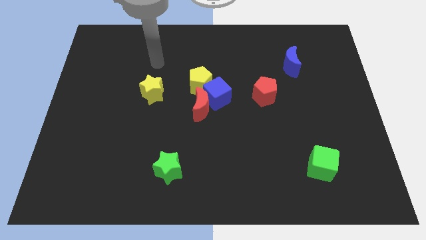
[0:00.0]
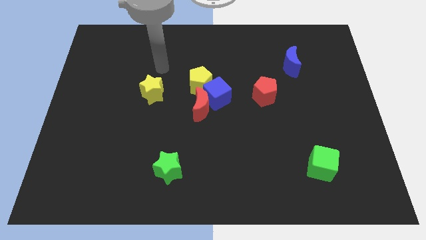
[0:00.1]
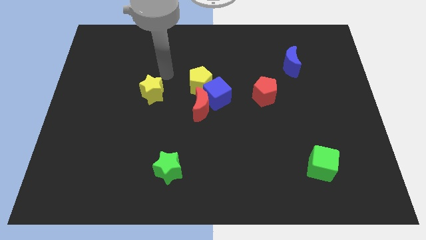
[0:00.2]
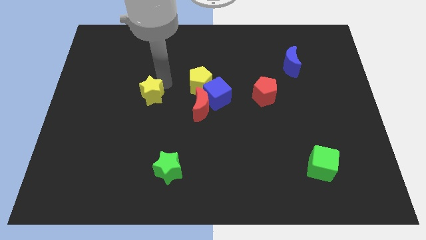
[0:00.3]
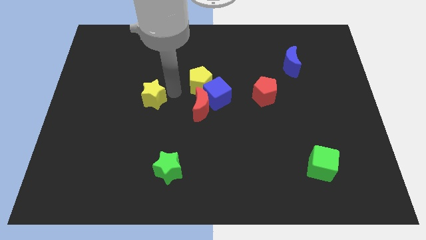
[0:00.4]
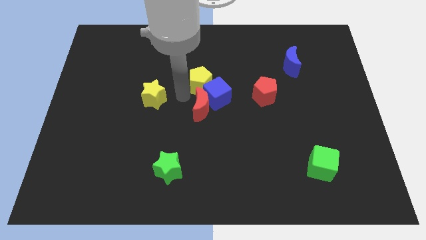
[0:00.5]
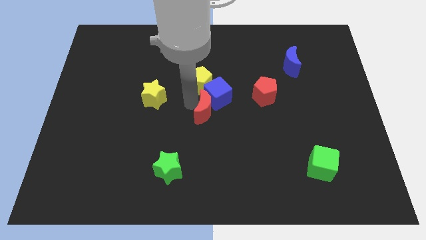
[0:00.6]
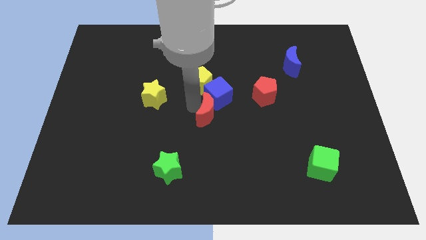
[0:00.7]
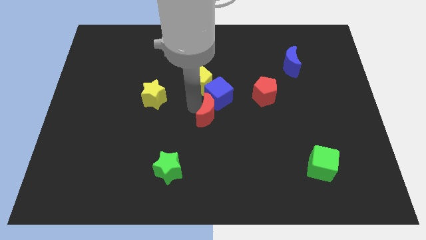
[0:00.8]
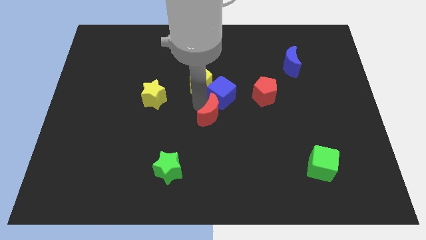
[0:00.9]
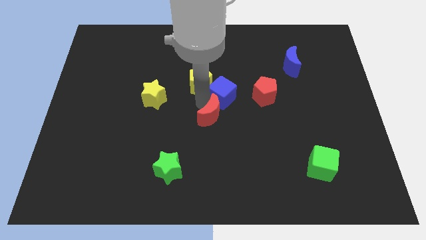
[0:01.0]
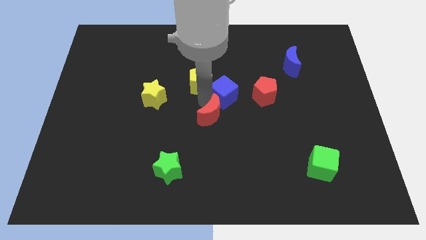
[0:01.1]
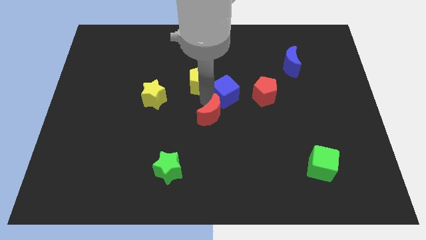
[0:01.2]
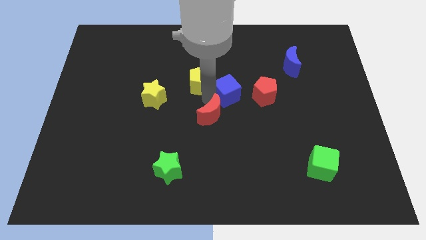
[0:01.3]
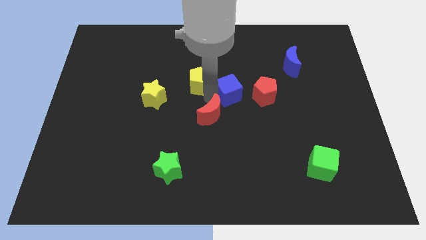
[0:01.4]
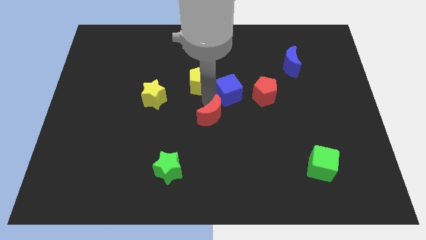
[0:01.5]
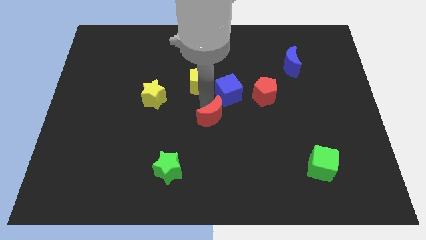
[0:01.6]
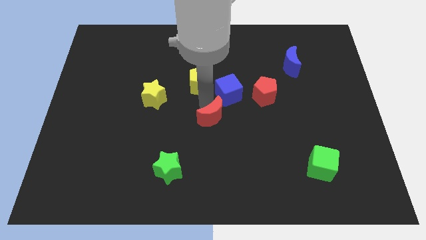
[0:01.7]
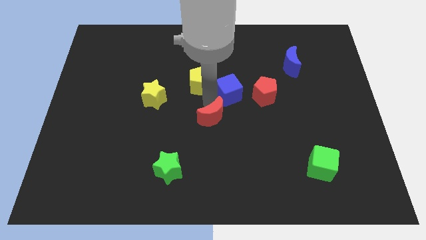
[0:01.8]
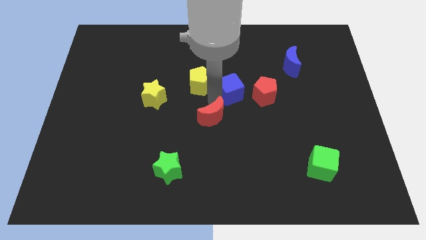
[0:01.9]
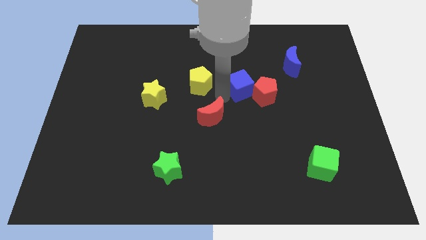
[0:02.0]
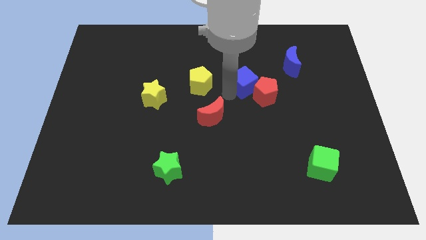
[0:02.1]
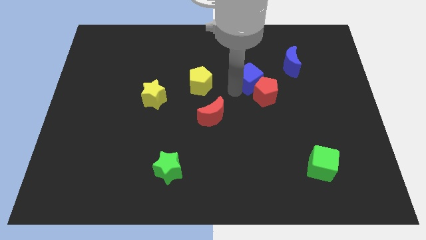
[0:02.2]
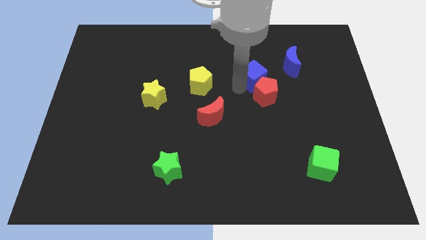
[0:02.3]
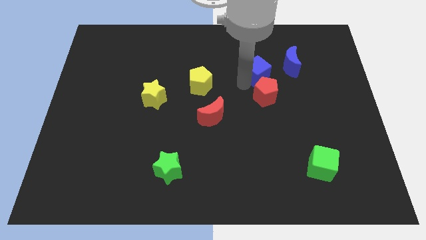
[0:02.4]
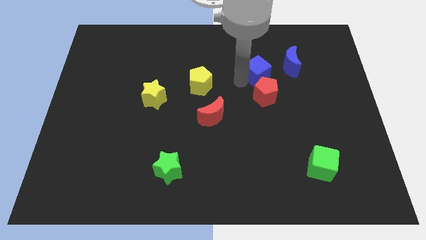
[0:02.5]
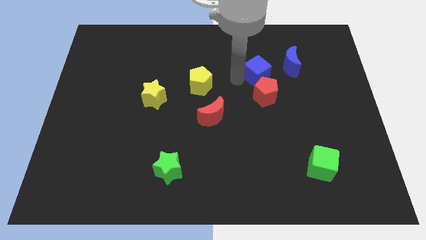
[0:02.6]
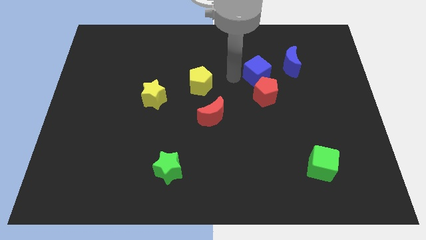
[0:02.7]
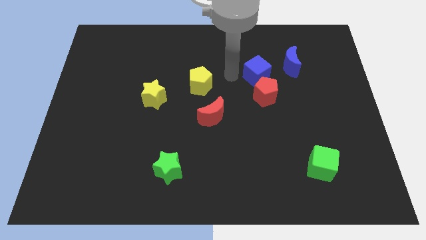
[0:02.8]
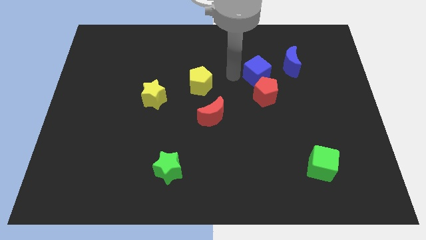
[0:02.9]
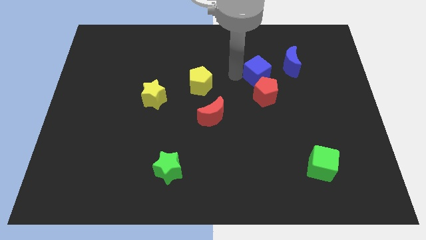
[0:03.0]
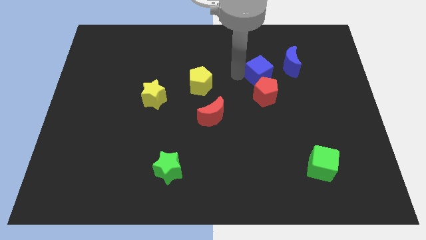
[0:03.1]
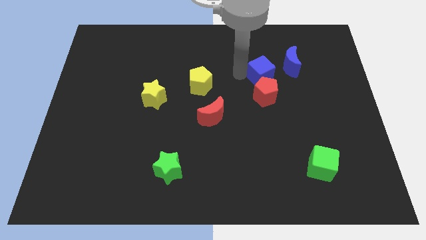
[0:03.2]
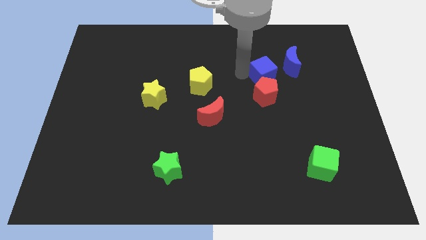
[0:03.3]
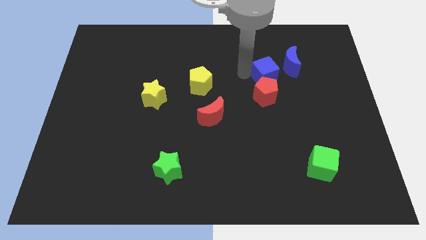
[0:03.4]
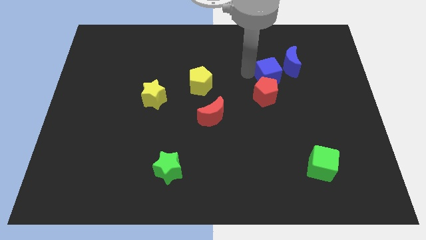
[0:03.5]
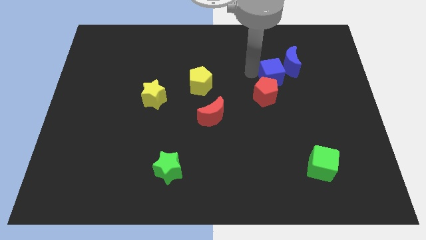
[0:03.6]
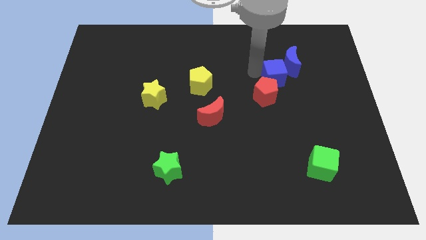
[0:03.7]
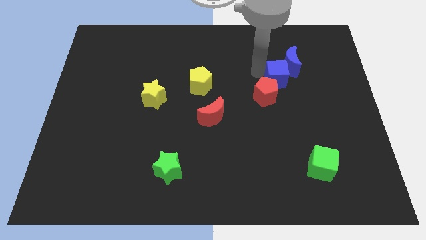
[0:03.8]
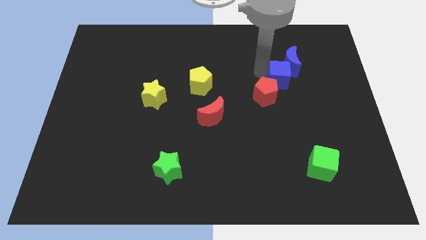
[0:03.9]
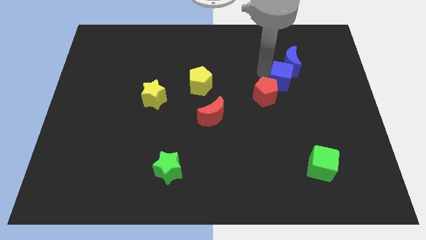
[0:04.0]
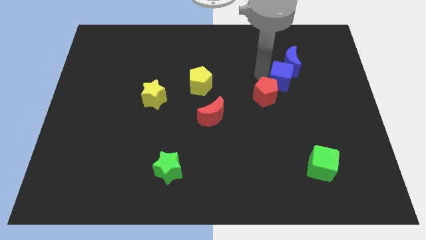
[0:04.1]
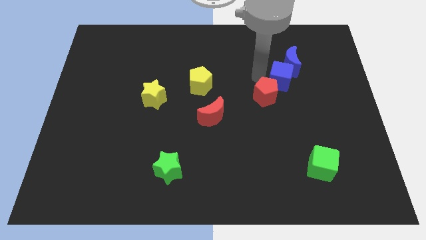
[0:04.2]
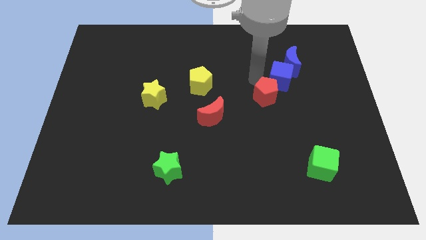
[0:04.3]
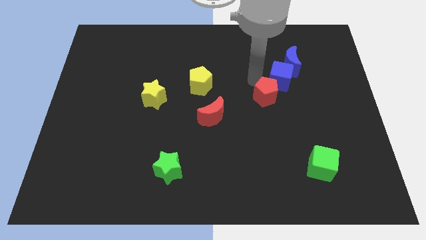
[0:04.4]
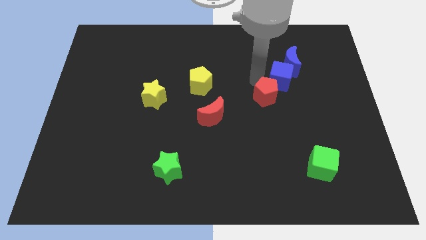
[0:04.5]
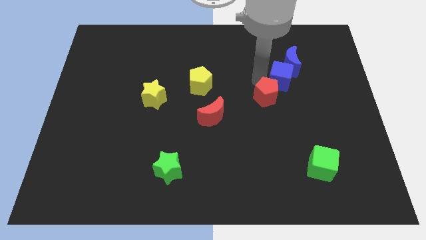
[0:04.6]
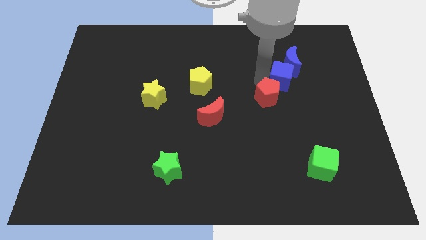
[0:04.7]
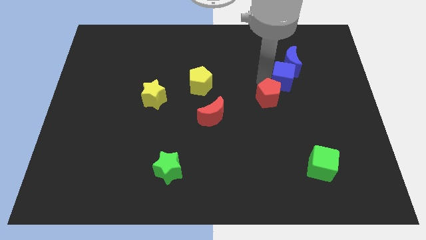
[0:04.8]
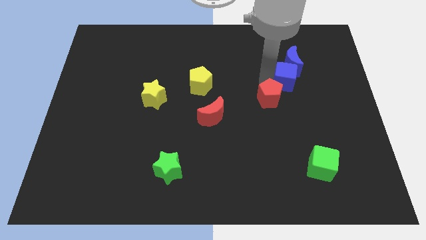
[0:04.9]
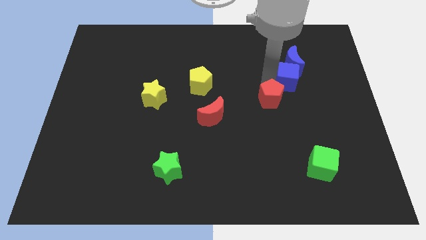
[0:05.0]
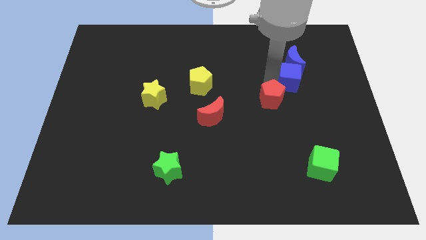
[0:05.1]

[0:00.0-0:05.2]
move the blue cube diagonally down and to the right of the blue moon

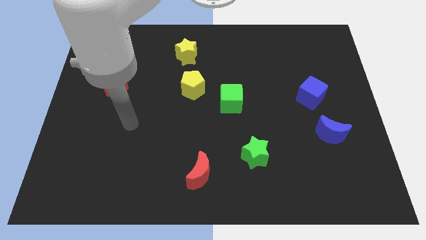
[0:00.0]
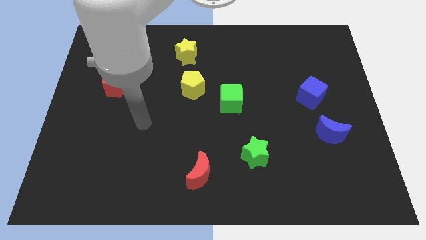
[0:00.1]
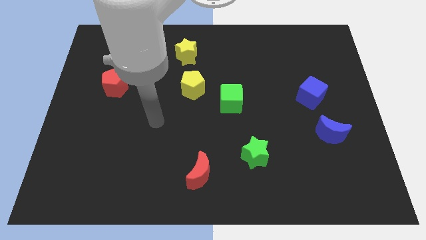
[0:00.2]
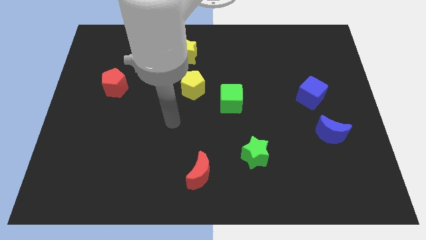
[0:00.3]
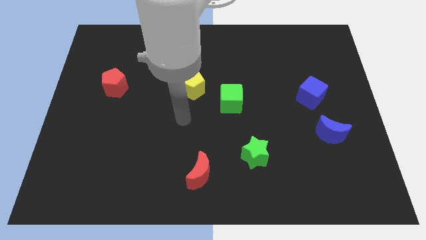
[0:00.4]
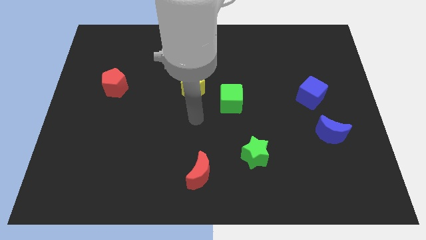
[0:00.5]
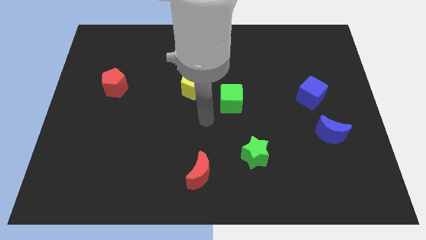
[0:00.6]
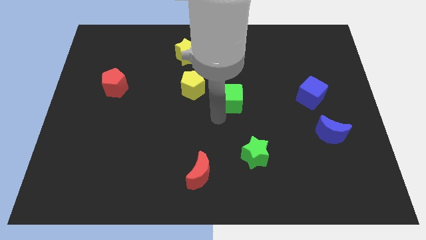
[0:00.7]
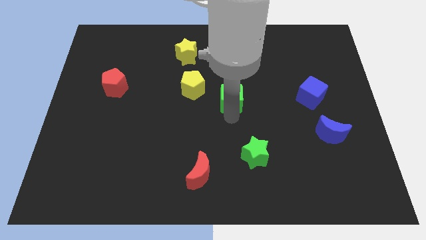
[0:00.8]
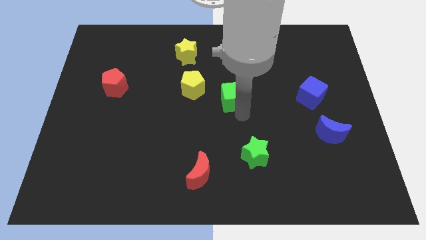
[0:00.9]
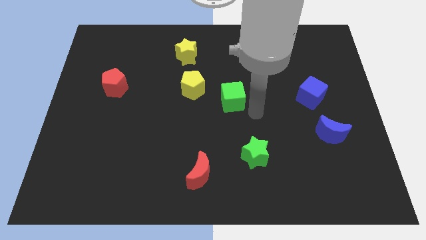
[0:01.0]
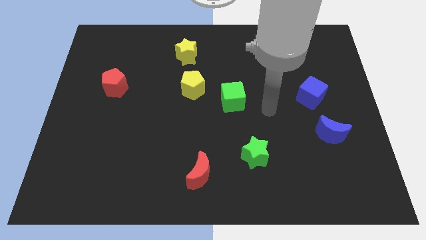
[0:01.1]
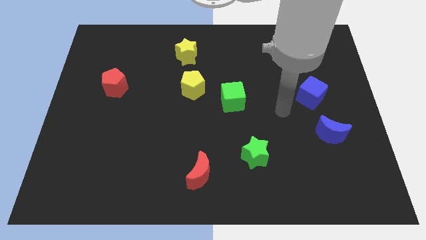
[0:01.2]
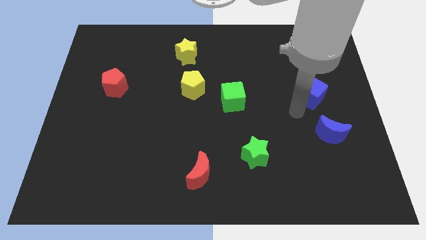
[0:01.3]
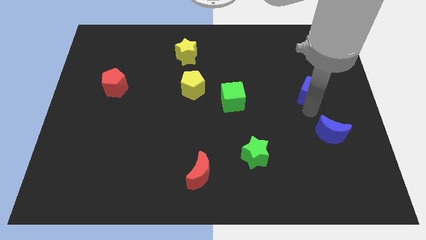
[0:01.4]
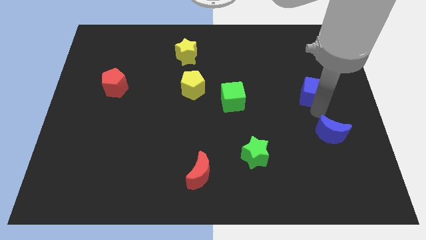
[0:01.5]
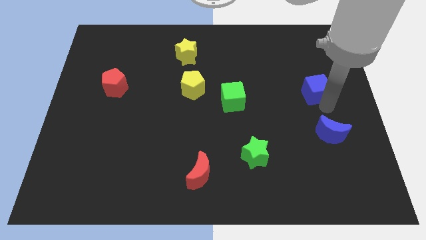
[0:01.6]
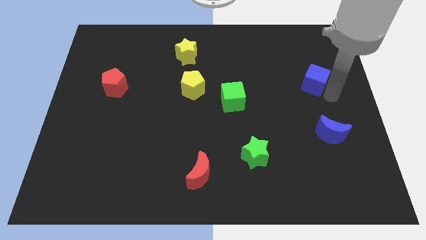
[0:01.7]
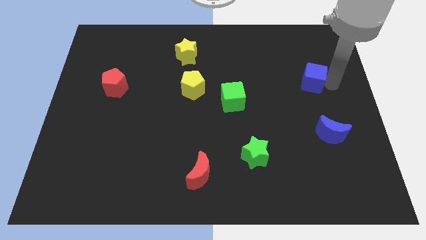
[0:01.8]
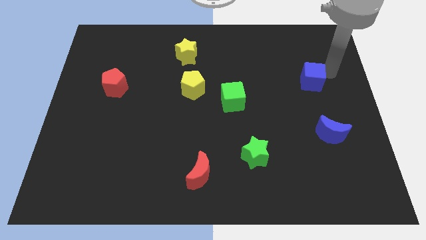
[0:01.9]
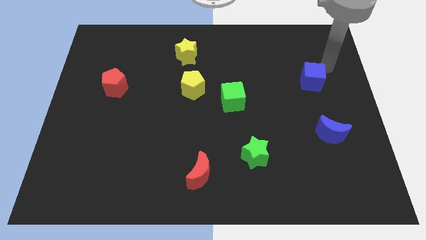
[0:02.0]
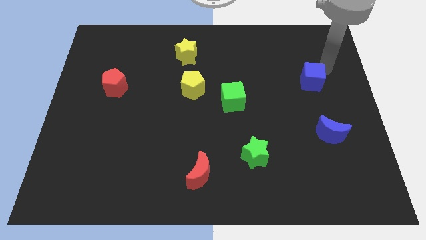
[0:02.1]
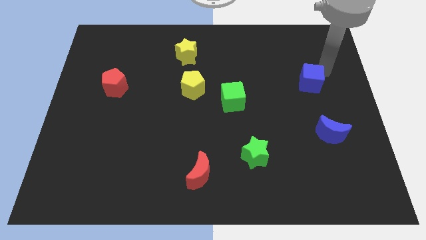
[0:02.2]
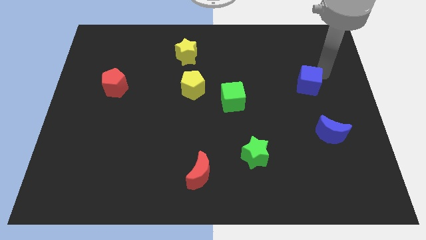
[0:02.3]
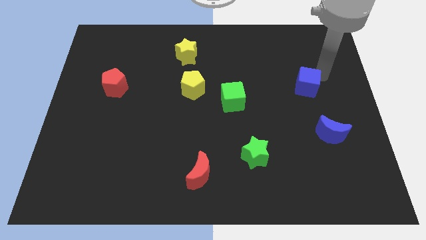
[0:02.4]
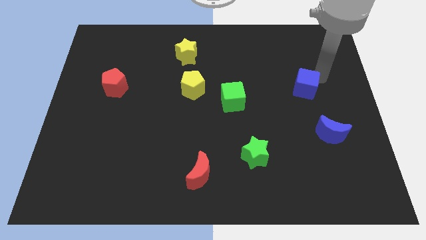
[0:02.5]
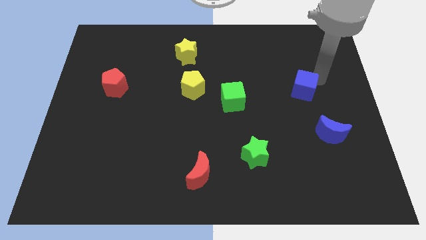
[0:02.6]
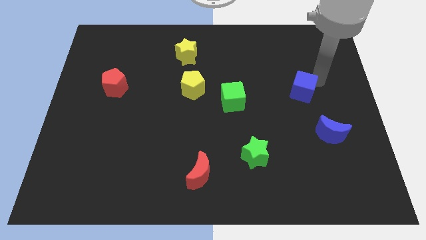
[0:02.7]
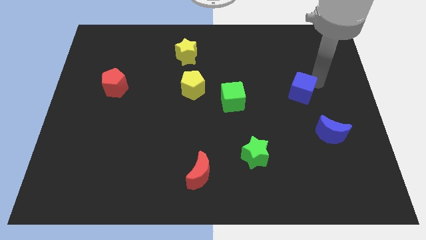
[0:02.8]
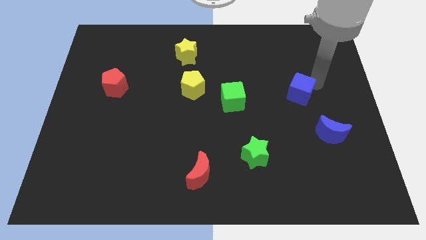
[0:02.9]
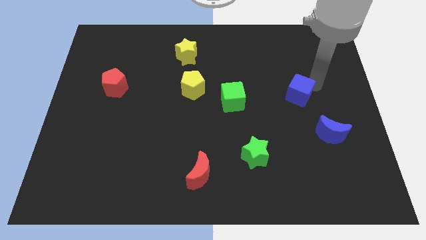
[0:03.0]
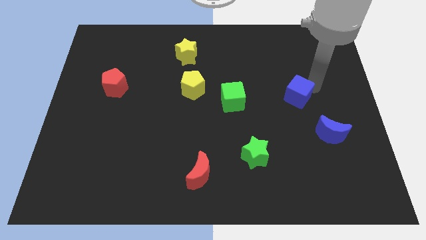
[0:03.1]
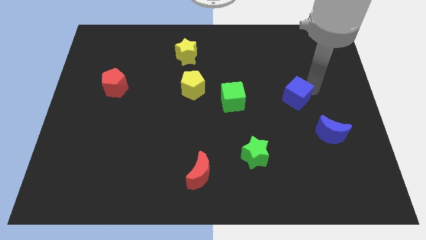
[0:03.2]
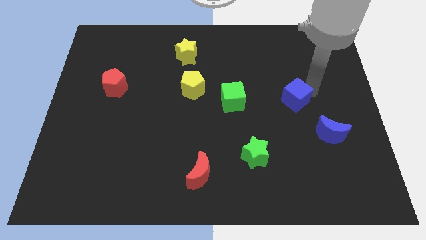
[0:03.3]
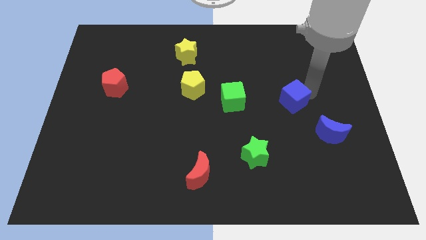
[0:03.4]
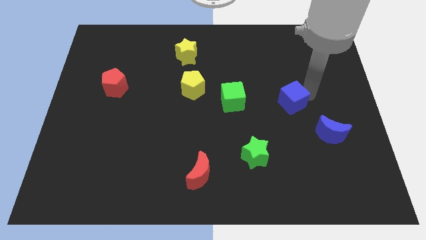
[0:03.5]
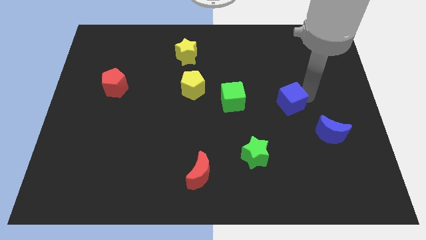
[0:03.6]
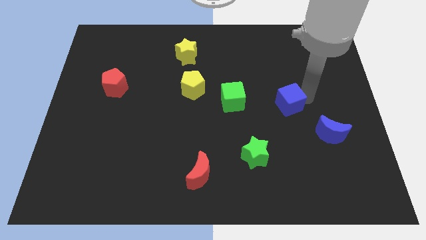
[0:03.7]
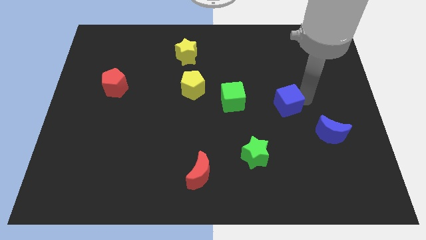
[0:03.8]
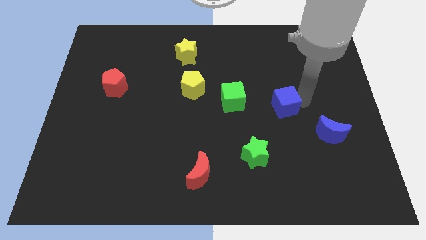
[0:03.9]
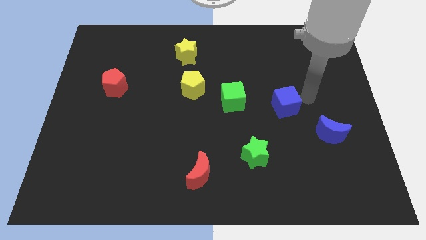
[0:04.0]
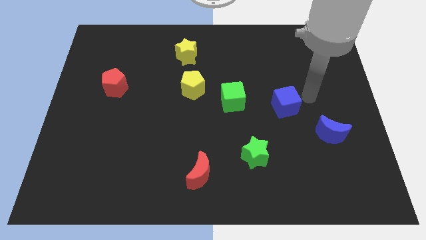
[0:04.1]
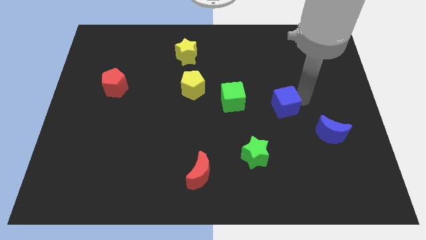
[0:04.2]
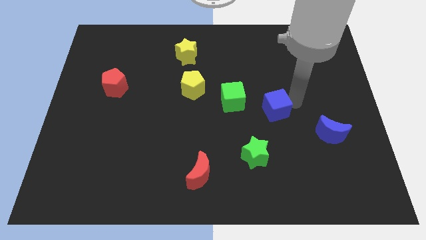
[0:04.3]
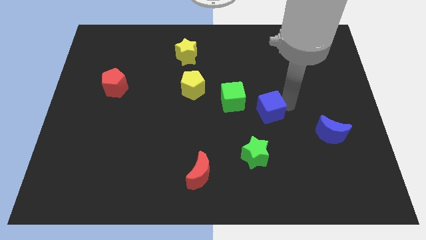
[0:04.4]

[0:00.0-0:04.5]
put the blue cube to the top of the green star
